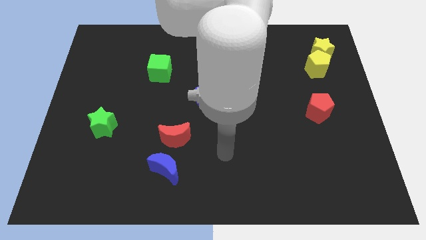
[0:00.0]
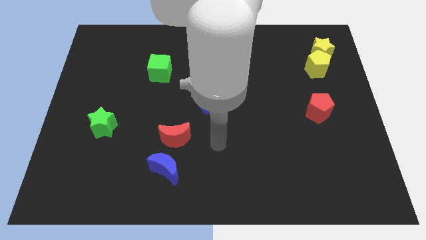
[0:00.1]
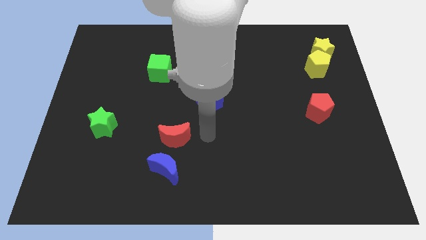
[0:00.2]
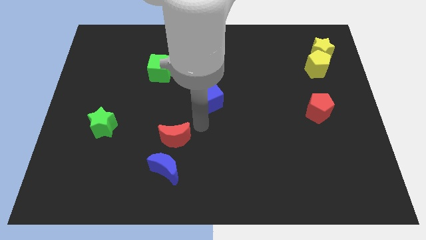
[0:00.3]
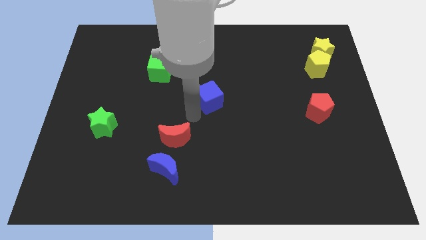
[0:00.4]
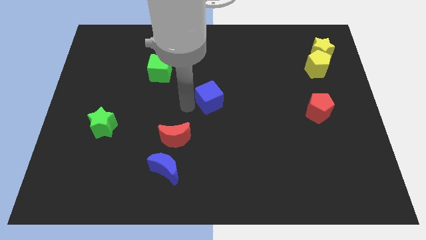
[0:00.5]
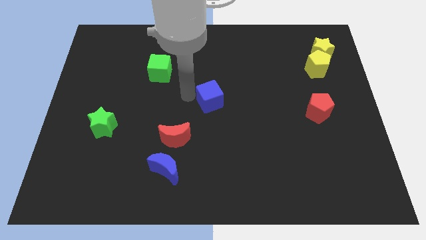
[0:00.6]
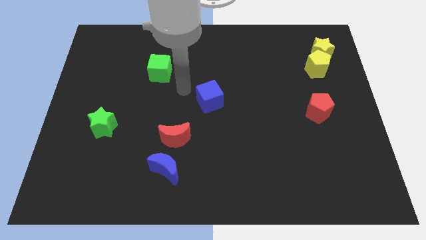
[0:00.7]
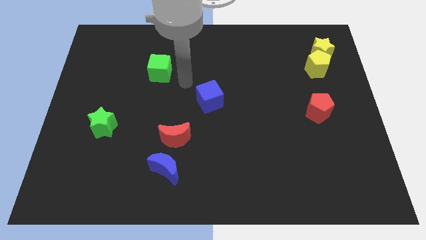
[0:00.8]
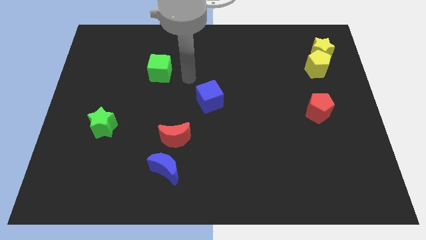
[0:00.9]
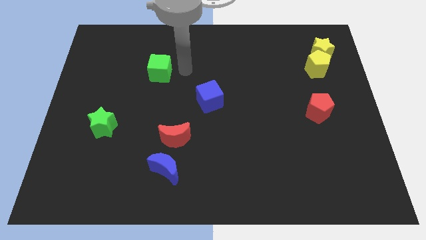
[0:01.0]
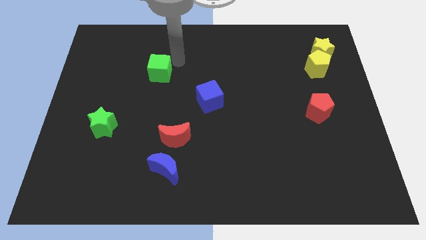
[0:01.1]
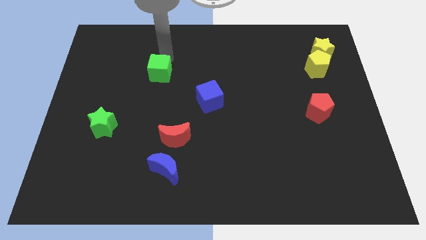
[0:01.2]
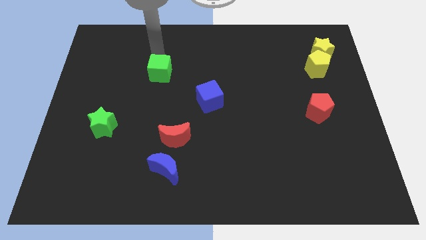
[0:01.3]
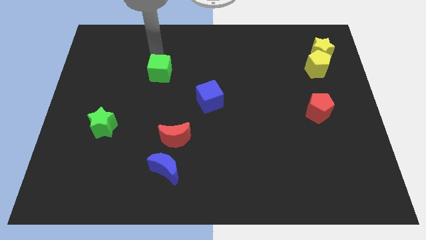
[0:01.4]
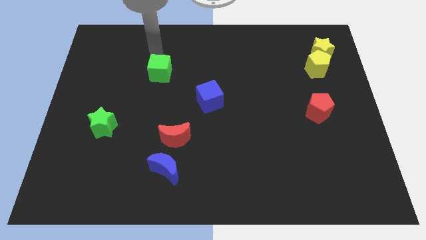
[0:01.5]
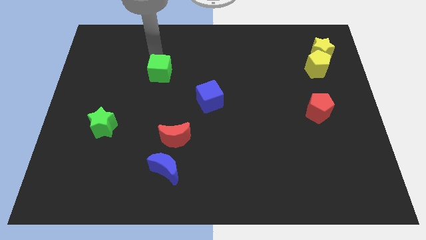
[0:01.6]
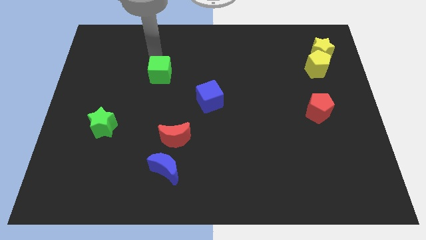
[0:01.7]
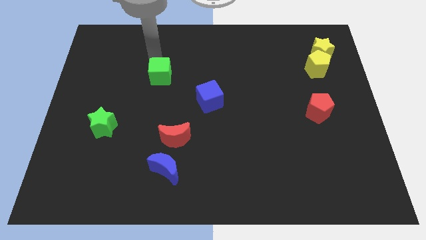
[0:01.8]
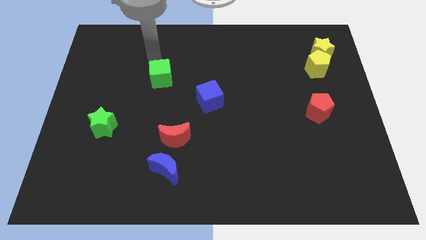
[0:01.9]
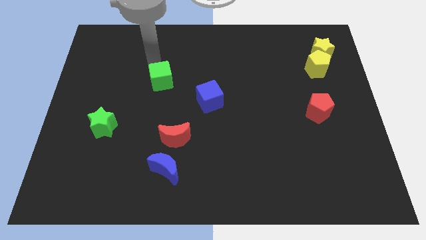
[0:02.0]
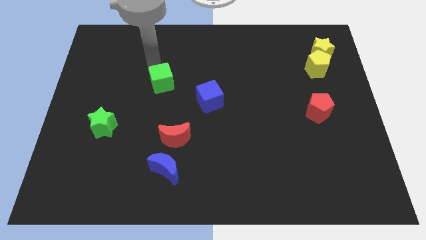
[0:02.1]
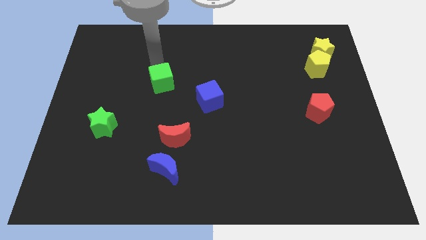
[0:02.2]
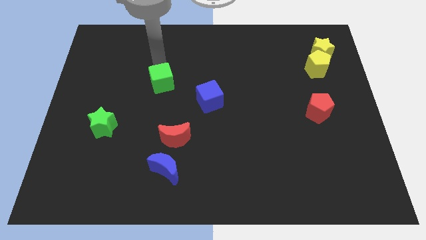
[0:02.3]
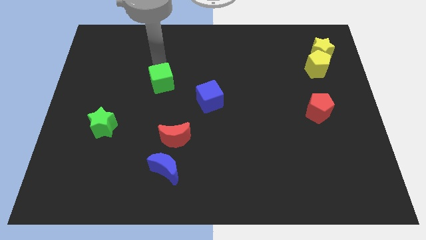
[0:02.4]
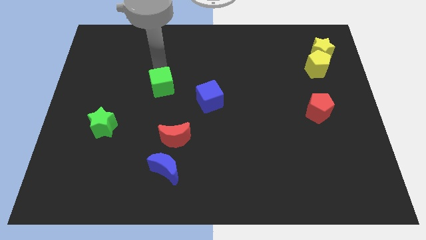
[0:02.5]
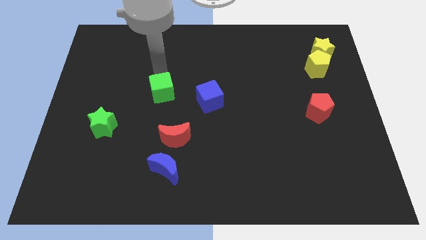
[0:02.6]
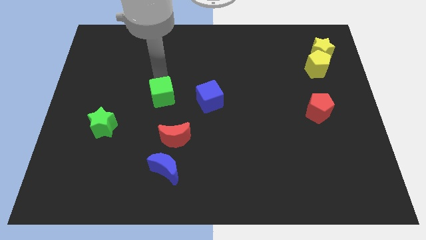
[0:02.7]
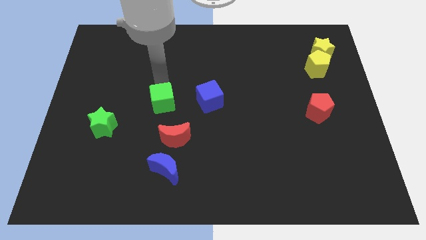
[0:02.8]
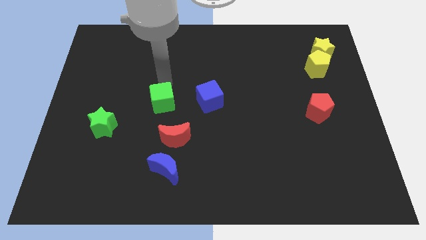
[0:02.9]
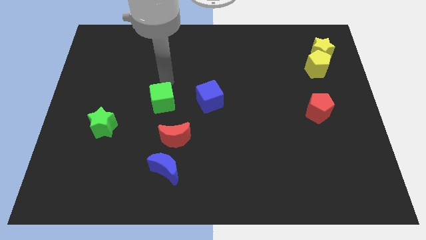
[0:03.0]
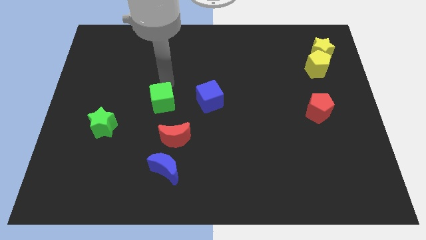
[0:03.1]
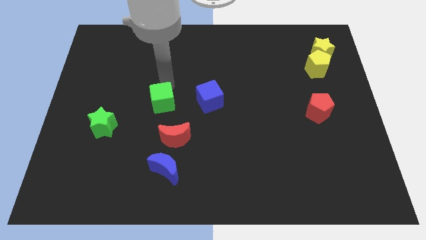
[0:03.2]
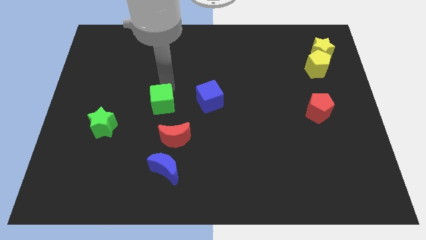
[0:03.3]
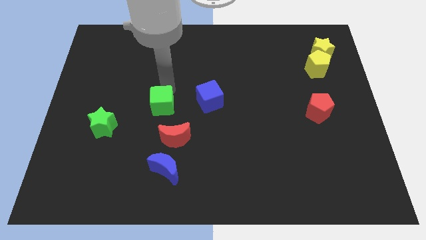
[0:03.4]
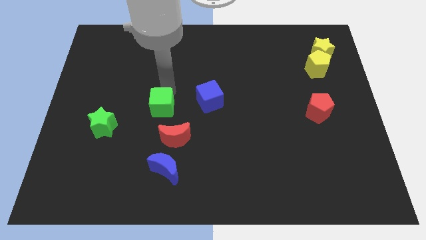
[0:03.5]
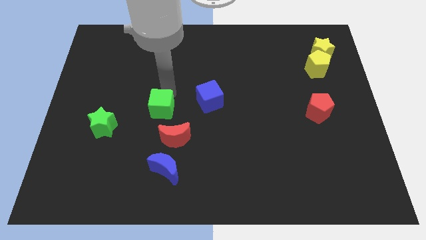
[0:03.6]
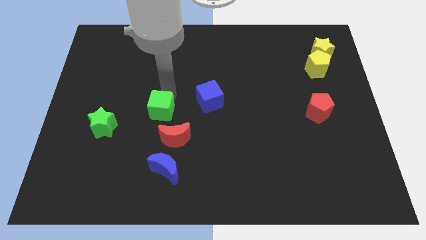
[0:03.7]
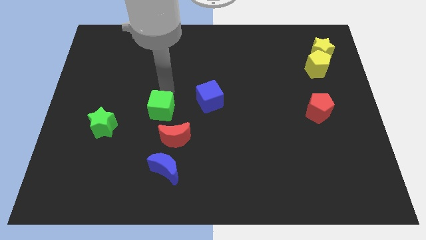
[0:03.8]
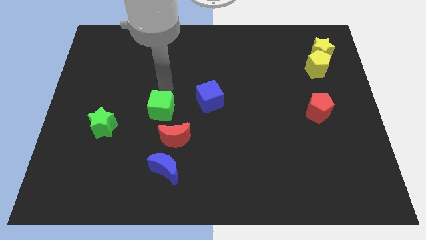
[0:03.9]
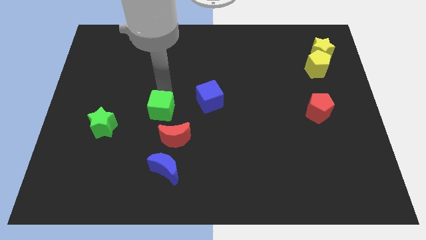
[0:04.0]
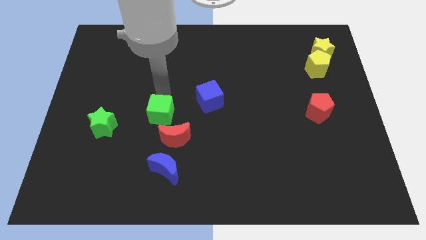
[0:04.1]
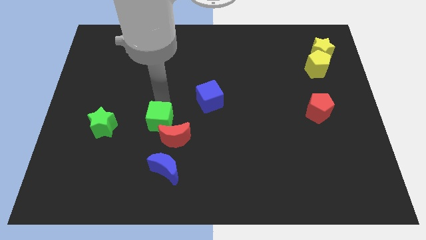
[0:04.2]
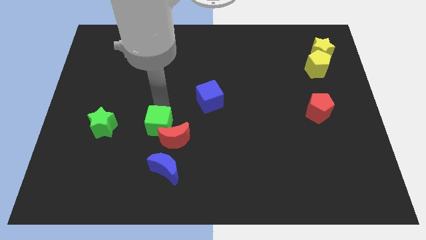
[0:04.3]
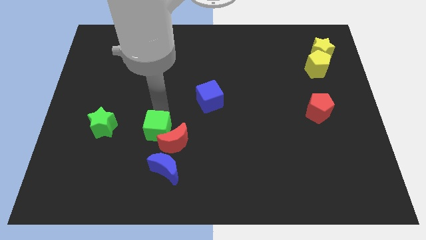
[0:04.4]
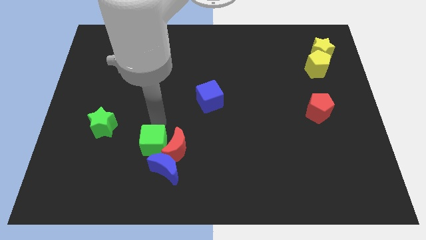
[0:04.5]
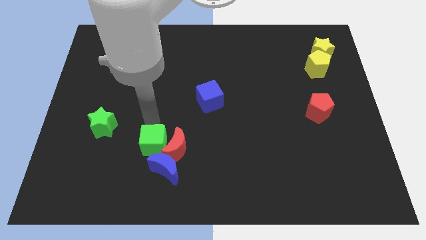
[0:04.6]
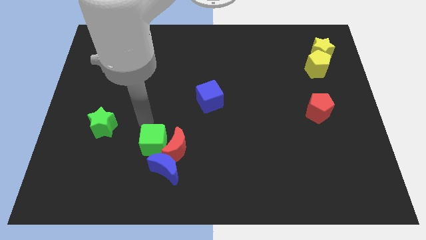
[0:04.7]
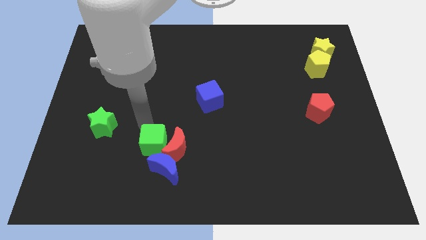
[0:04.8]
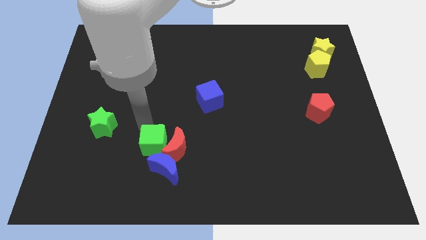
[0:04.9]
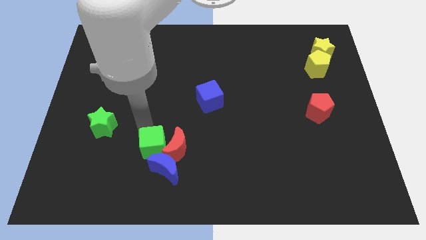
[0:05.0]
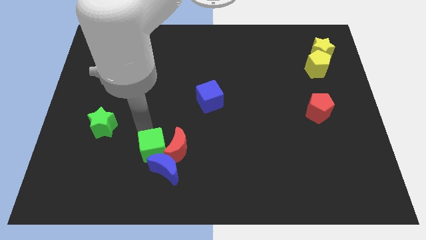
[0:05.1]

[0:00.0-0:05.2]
push the green cube close to the blue moon

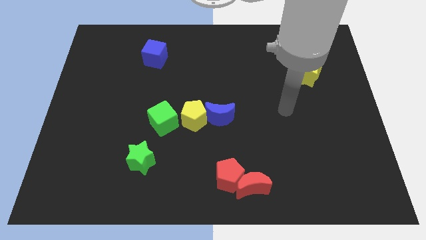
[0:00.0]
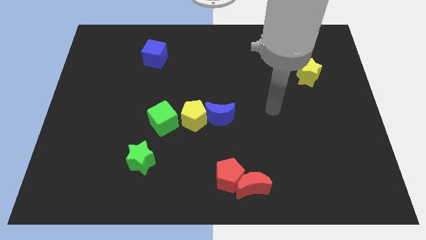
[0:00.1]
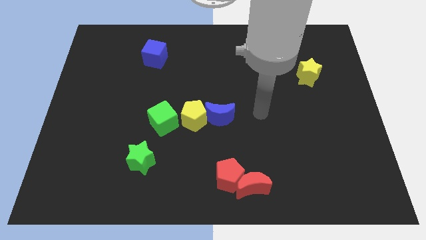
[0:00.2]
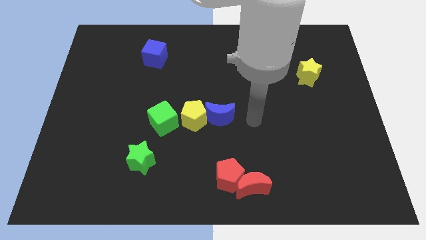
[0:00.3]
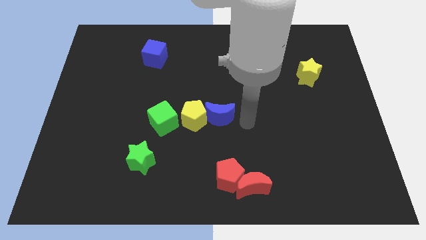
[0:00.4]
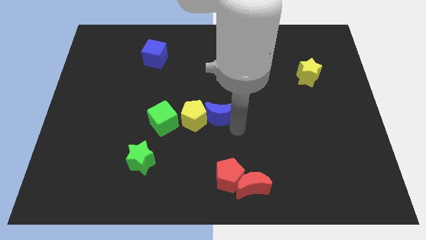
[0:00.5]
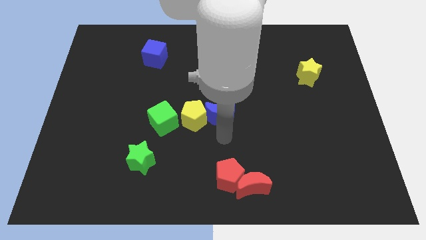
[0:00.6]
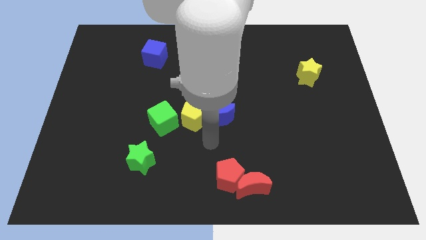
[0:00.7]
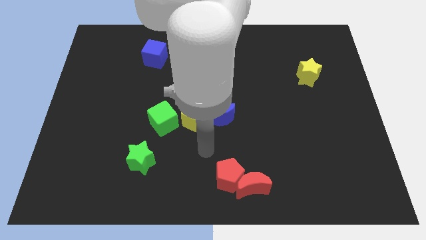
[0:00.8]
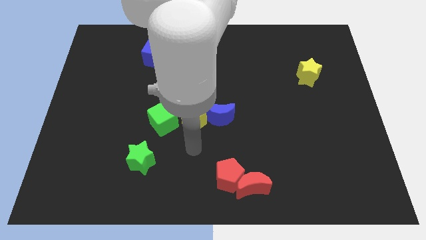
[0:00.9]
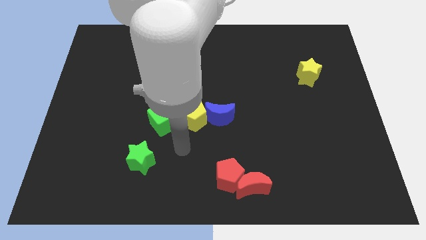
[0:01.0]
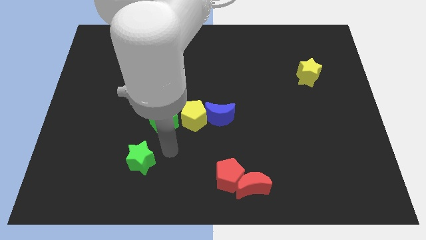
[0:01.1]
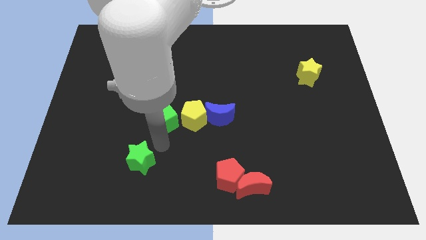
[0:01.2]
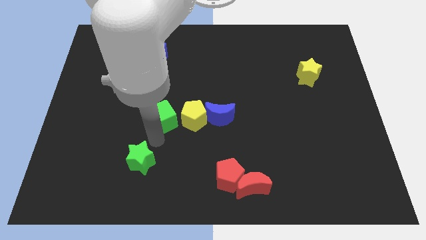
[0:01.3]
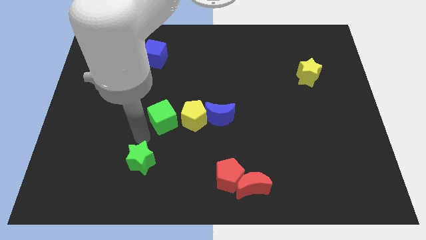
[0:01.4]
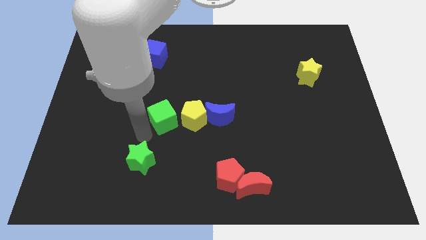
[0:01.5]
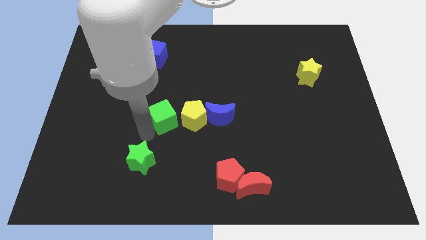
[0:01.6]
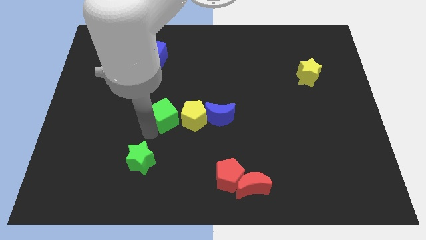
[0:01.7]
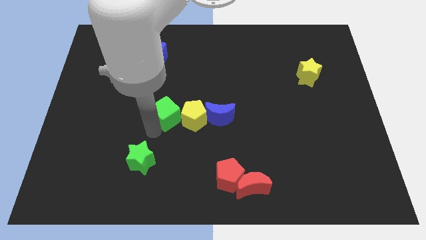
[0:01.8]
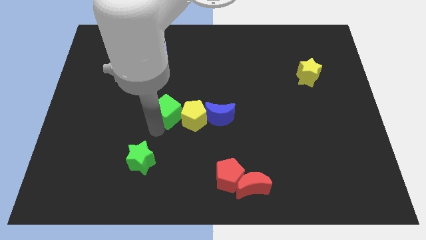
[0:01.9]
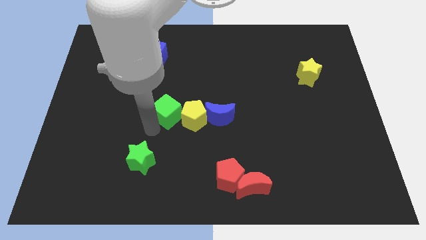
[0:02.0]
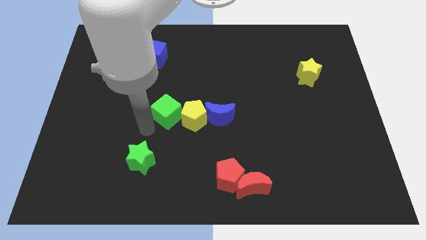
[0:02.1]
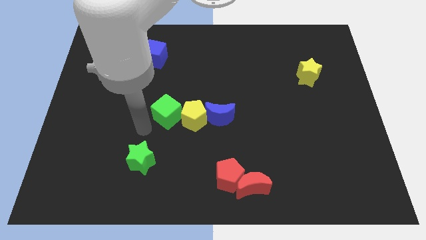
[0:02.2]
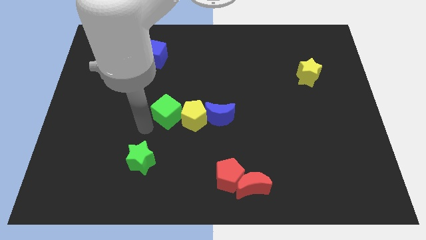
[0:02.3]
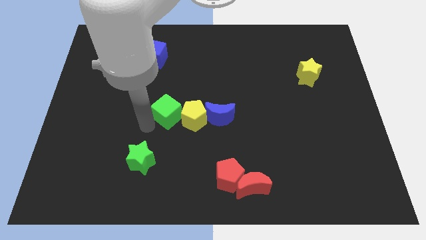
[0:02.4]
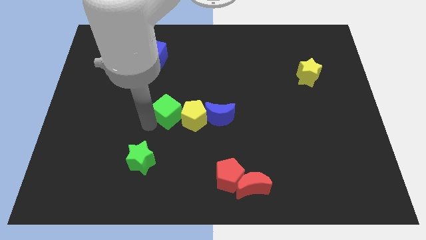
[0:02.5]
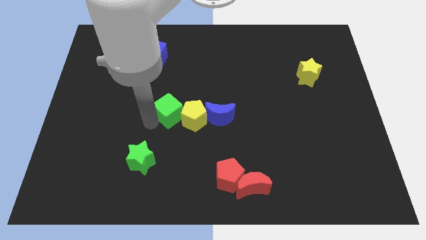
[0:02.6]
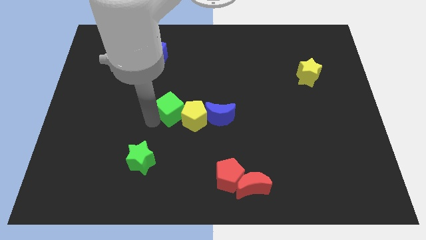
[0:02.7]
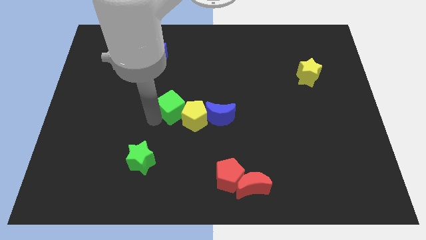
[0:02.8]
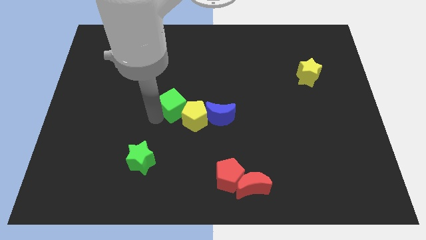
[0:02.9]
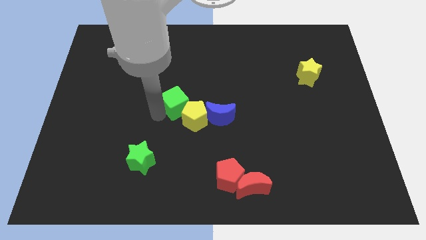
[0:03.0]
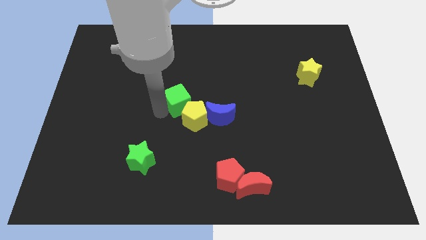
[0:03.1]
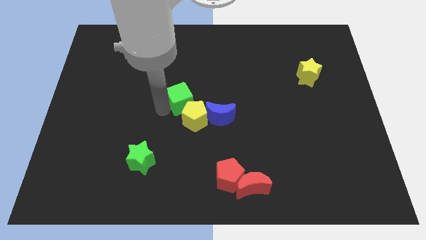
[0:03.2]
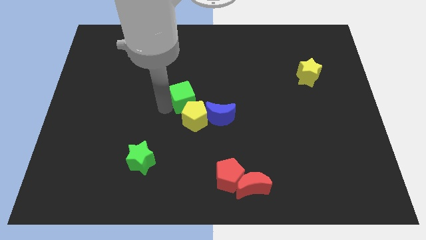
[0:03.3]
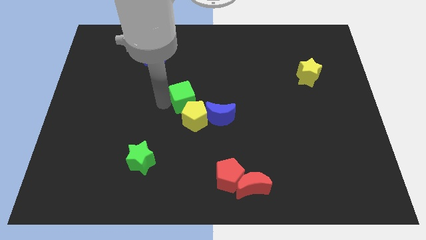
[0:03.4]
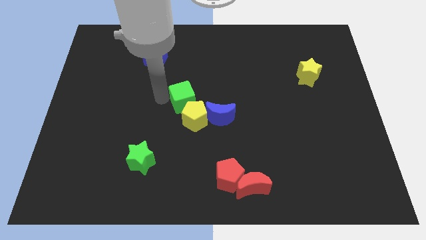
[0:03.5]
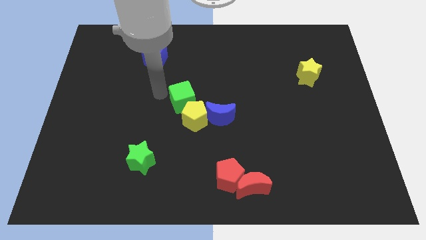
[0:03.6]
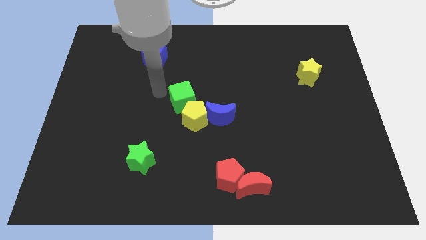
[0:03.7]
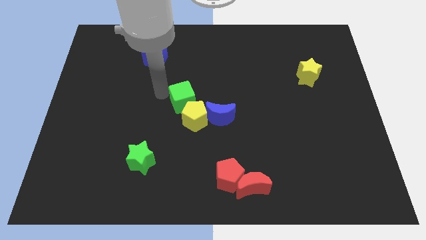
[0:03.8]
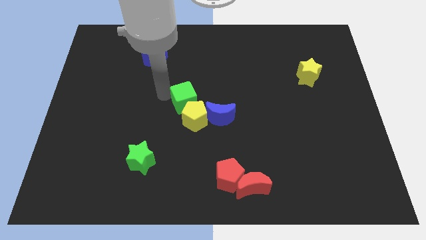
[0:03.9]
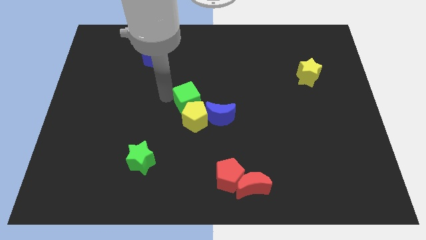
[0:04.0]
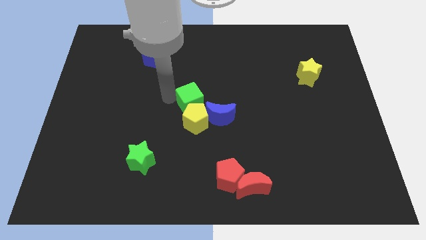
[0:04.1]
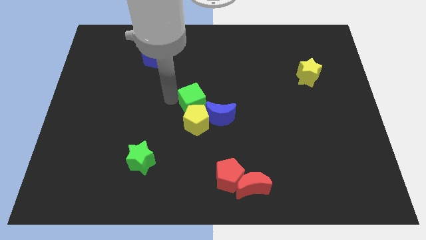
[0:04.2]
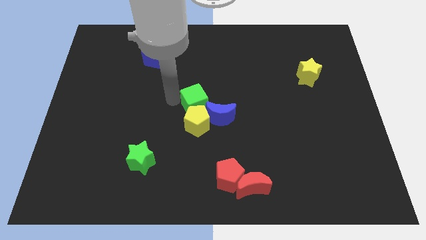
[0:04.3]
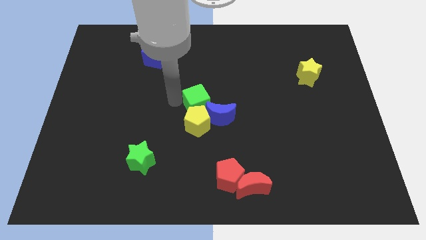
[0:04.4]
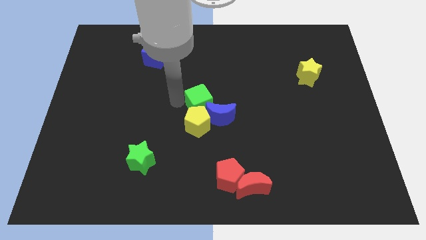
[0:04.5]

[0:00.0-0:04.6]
move the green cube towards the blue moon
